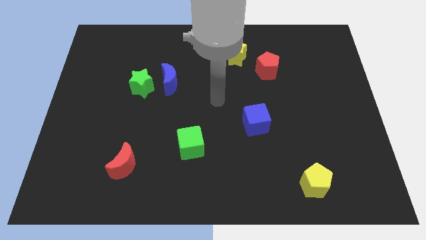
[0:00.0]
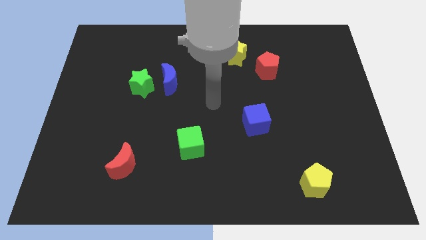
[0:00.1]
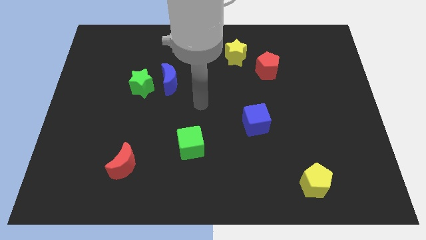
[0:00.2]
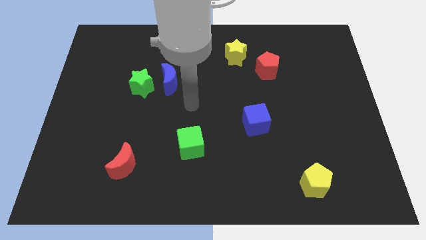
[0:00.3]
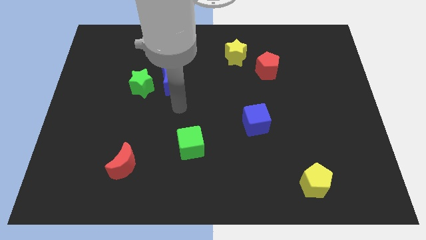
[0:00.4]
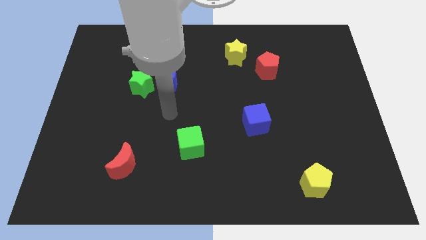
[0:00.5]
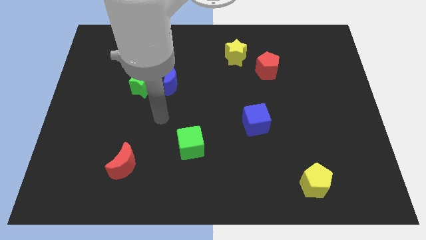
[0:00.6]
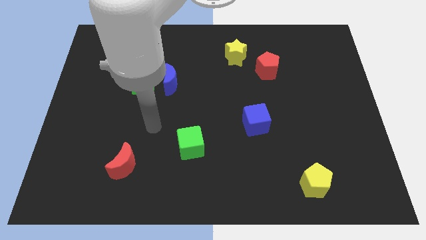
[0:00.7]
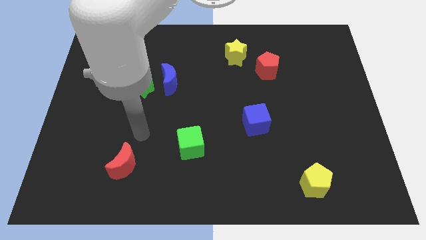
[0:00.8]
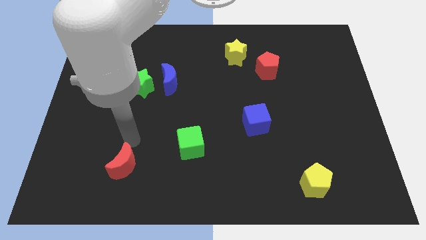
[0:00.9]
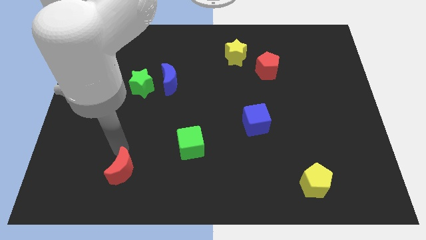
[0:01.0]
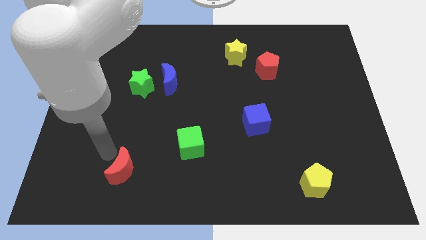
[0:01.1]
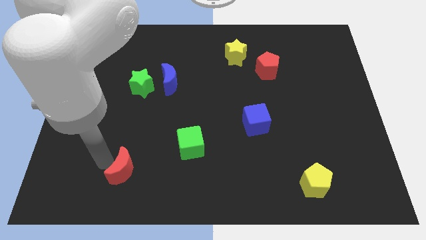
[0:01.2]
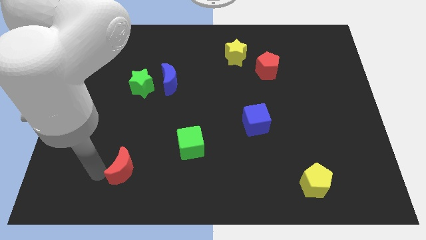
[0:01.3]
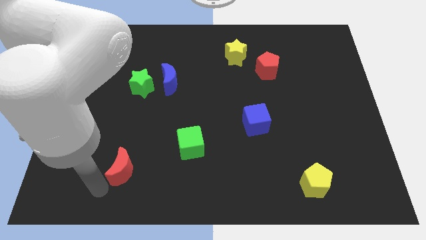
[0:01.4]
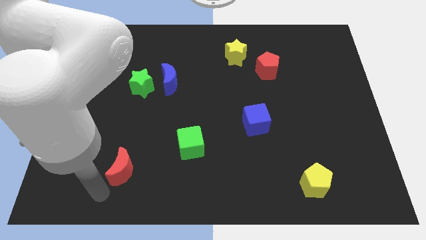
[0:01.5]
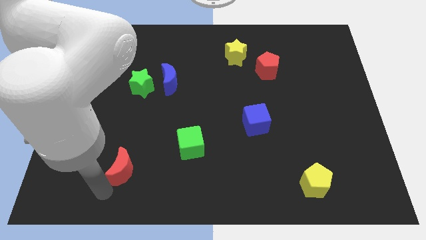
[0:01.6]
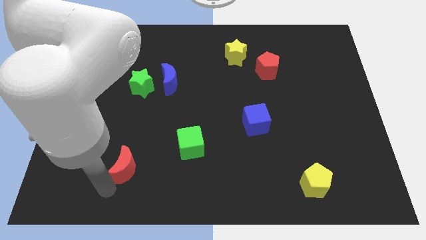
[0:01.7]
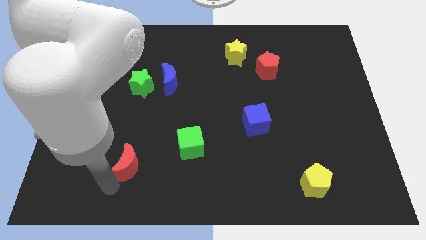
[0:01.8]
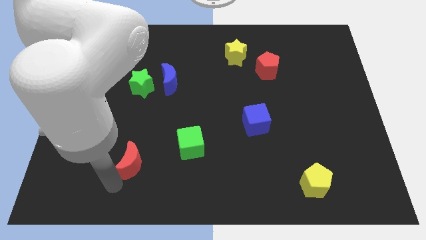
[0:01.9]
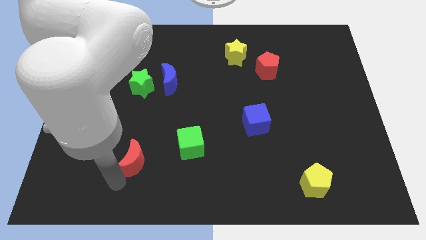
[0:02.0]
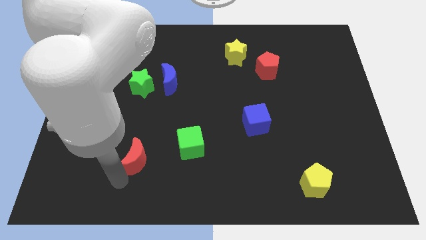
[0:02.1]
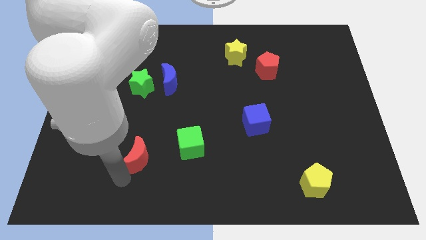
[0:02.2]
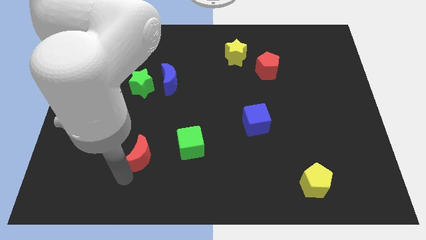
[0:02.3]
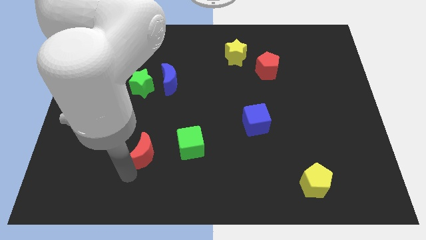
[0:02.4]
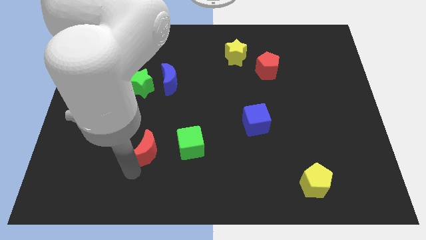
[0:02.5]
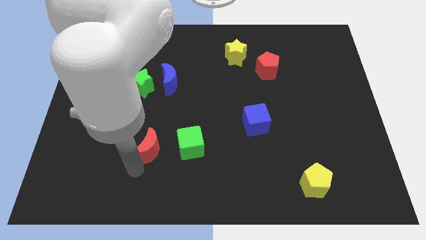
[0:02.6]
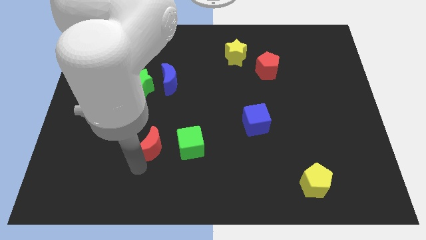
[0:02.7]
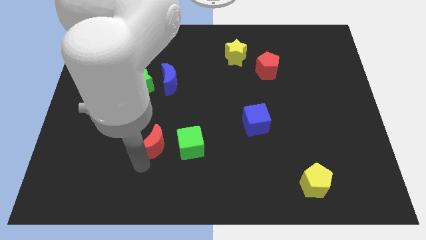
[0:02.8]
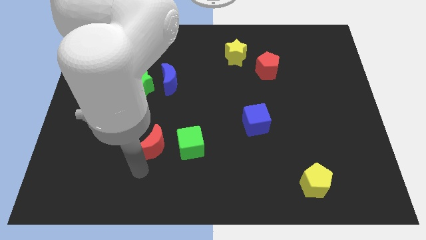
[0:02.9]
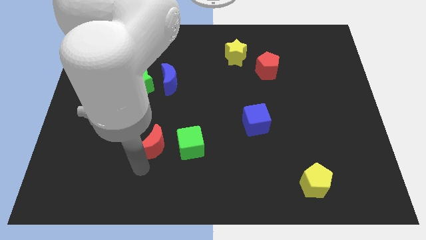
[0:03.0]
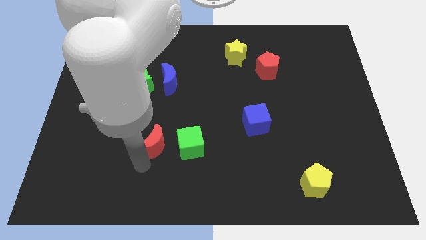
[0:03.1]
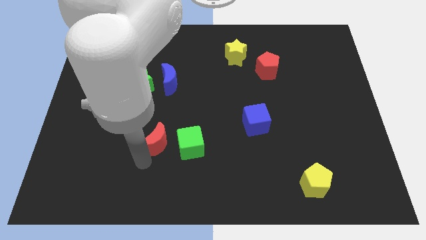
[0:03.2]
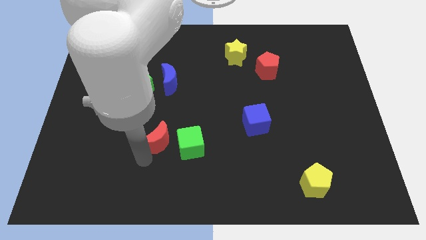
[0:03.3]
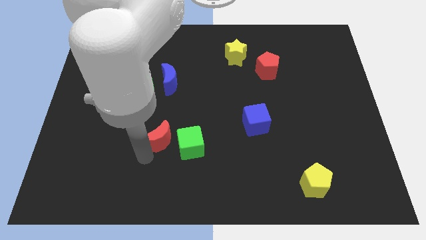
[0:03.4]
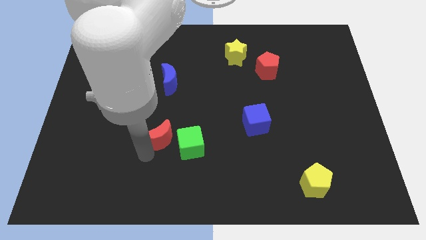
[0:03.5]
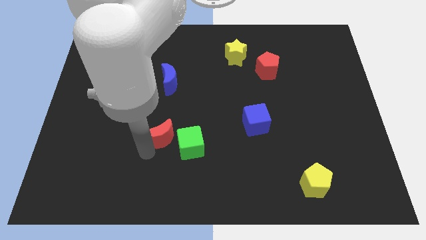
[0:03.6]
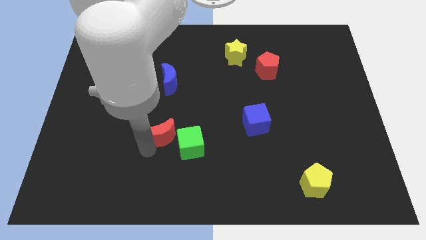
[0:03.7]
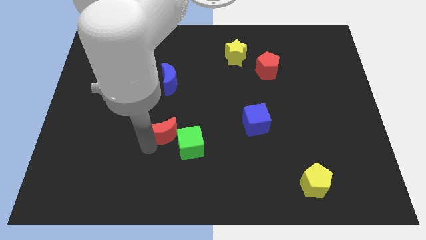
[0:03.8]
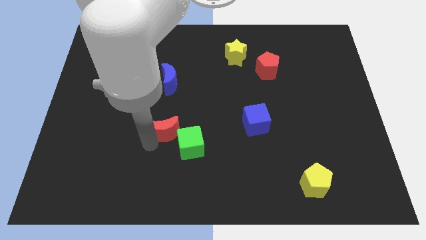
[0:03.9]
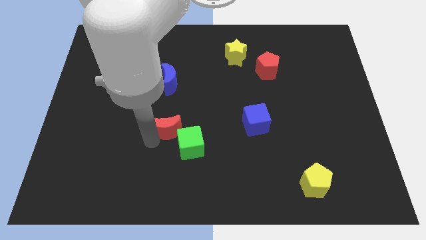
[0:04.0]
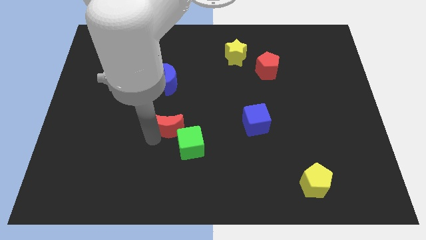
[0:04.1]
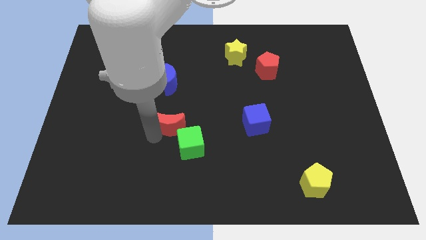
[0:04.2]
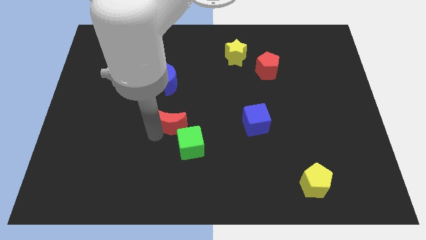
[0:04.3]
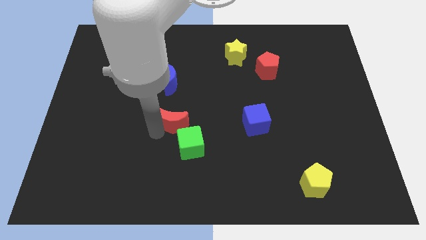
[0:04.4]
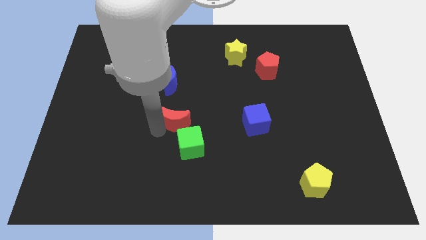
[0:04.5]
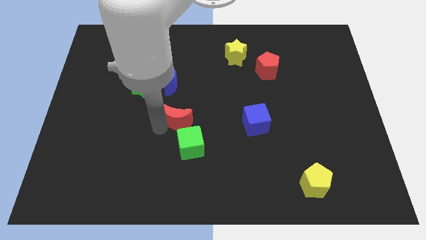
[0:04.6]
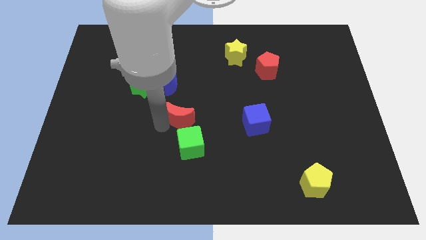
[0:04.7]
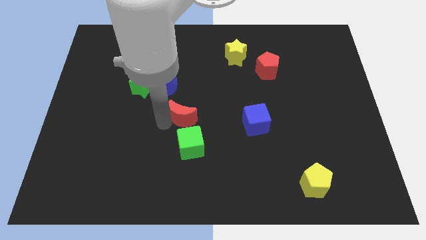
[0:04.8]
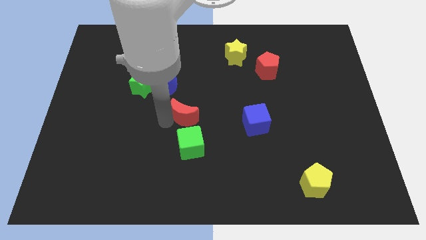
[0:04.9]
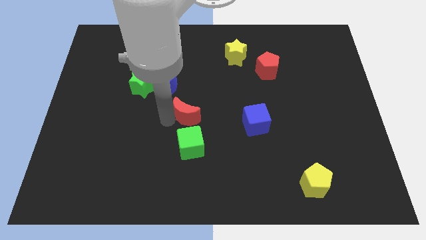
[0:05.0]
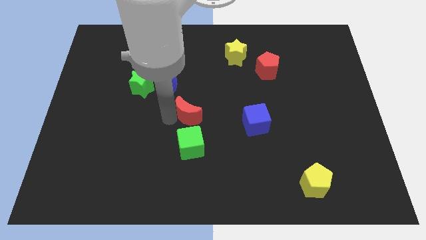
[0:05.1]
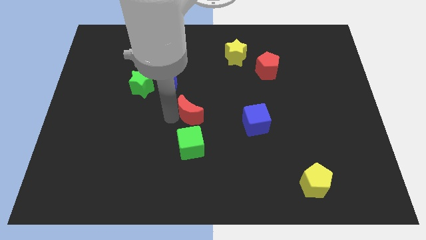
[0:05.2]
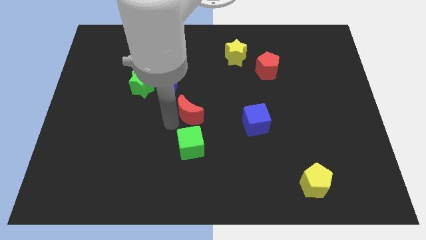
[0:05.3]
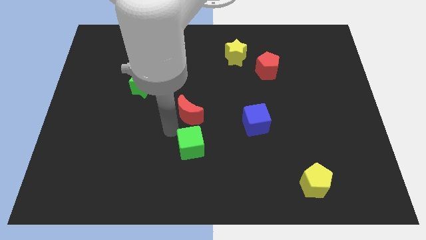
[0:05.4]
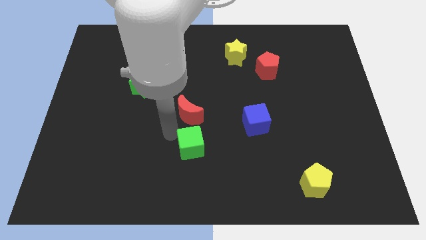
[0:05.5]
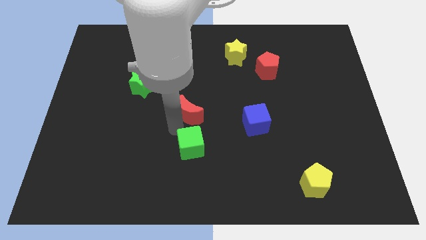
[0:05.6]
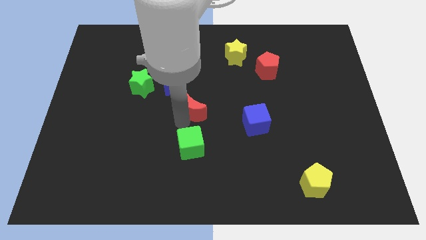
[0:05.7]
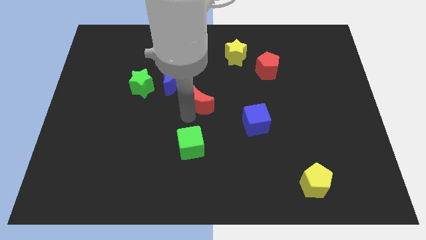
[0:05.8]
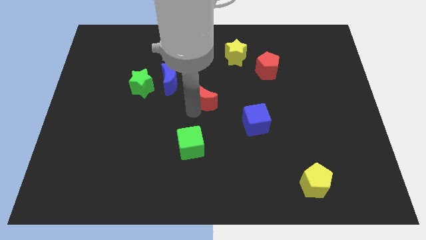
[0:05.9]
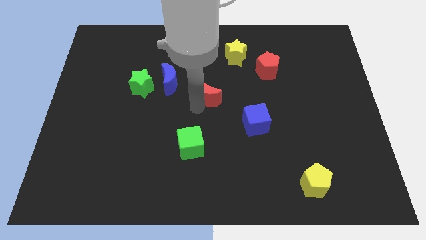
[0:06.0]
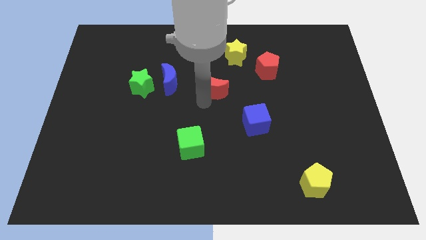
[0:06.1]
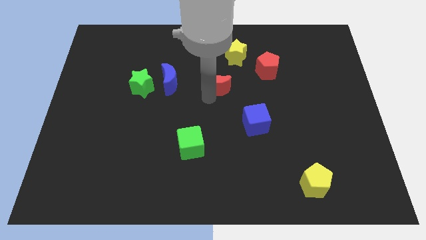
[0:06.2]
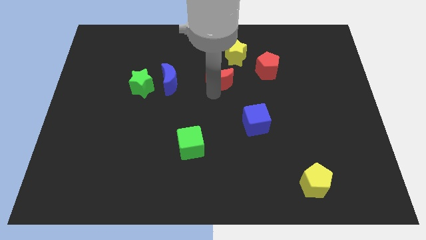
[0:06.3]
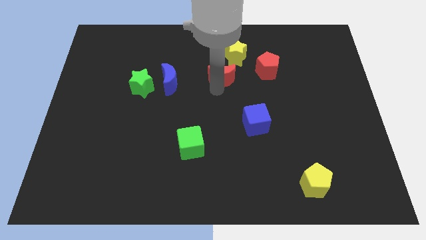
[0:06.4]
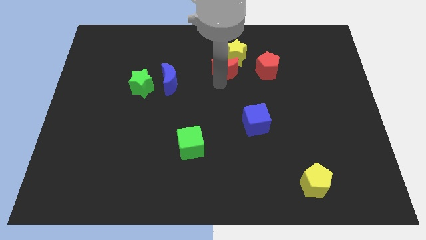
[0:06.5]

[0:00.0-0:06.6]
put the red moon towards the yellow star

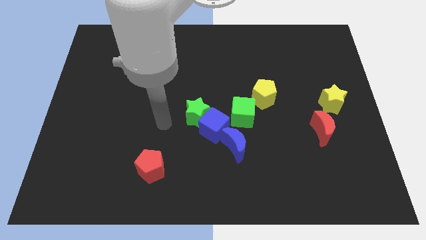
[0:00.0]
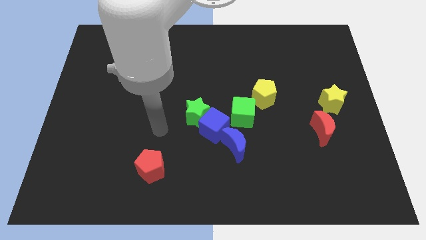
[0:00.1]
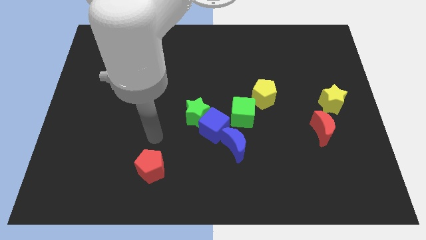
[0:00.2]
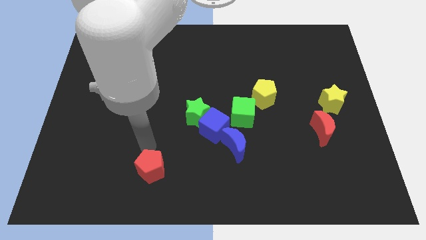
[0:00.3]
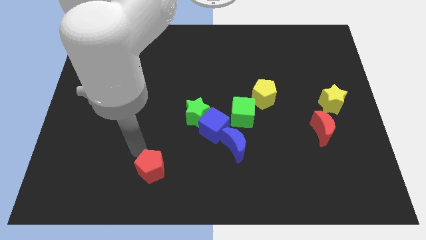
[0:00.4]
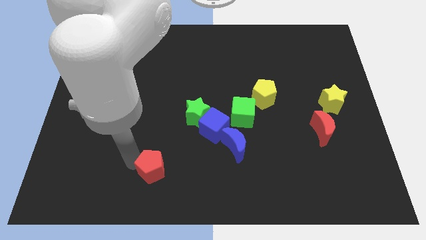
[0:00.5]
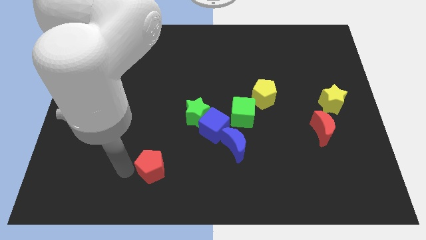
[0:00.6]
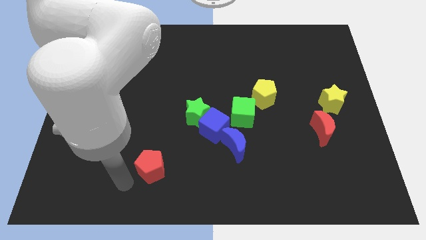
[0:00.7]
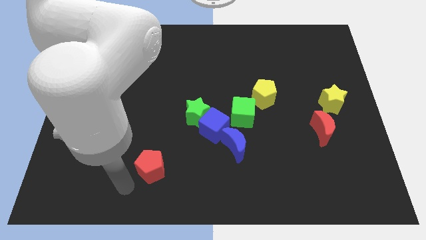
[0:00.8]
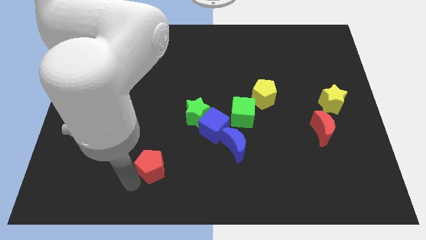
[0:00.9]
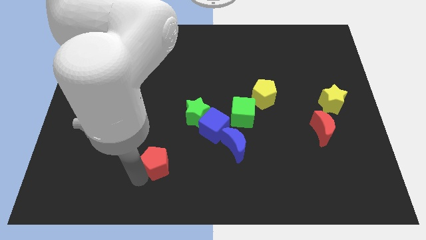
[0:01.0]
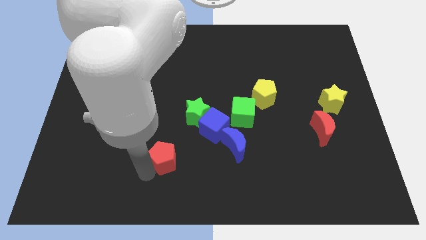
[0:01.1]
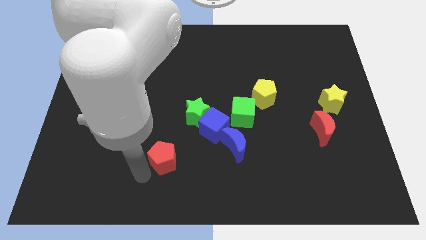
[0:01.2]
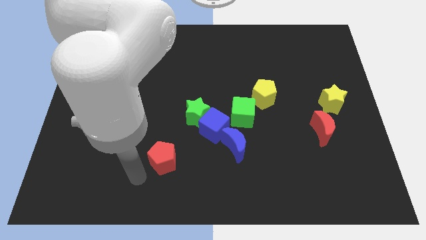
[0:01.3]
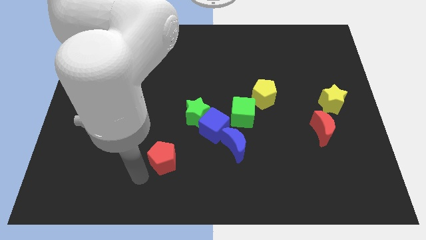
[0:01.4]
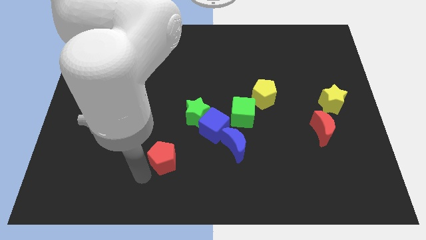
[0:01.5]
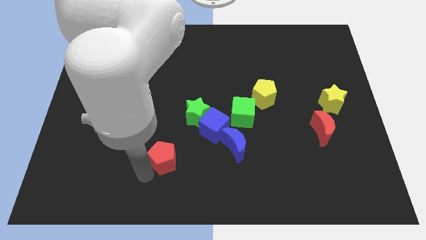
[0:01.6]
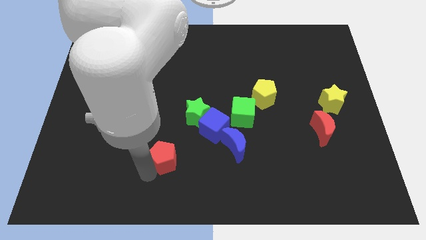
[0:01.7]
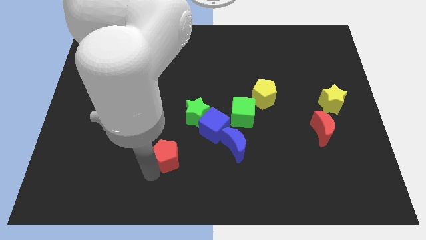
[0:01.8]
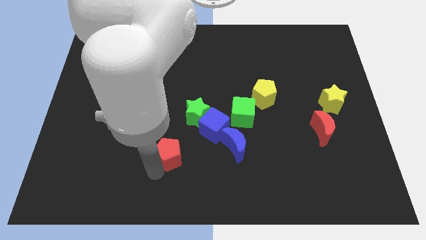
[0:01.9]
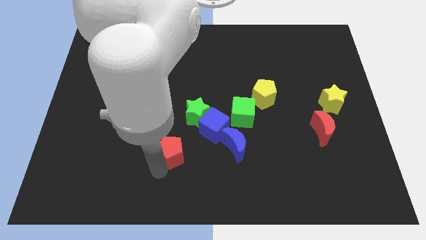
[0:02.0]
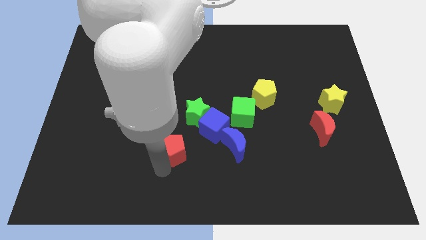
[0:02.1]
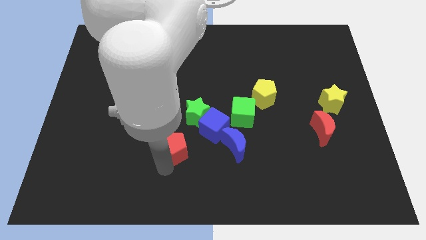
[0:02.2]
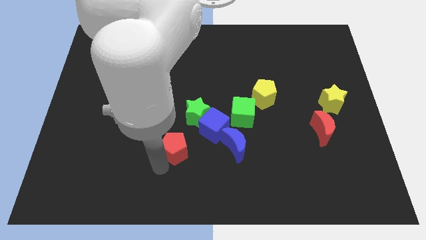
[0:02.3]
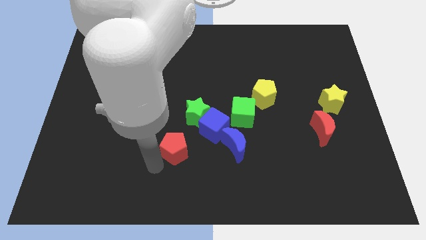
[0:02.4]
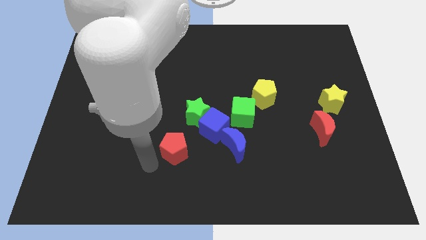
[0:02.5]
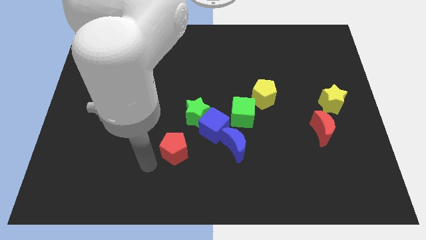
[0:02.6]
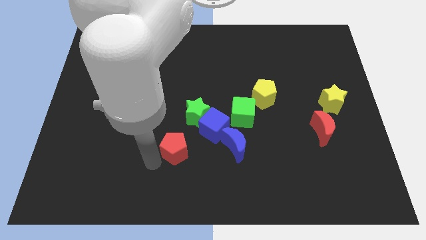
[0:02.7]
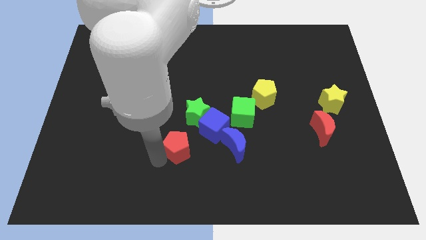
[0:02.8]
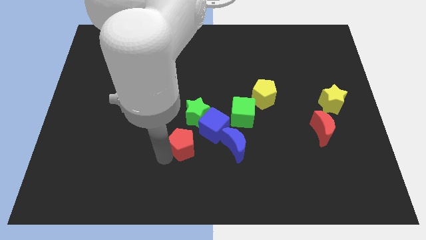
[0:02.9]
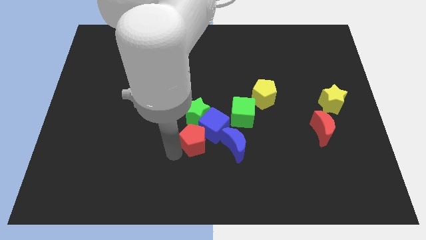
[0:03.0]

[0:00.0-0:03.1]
put the red pentagon close to the blue cube
